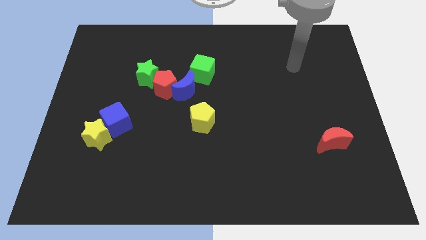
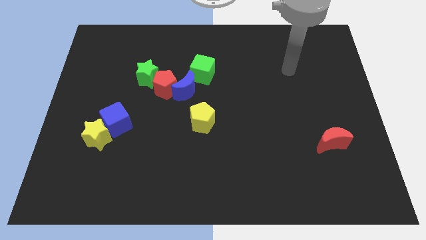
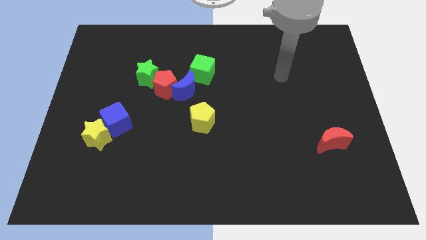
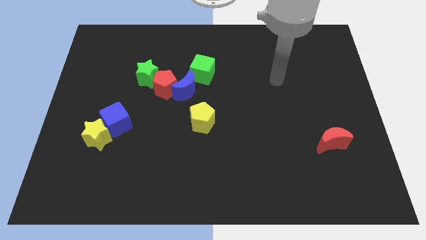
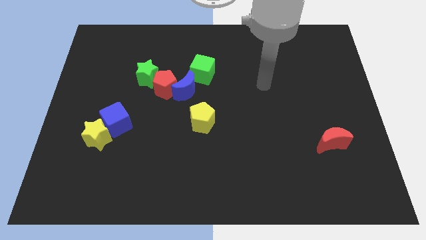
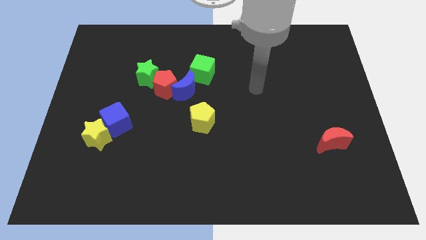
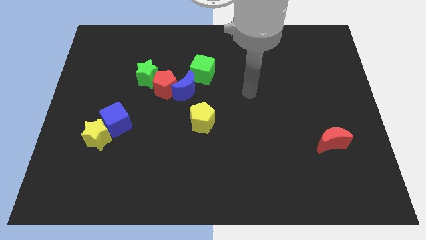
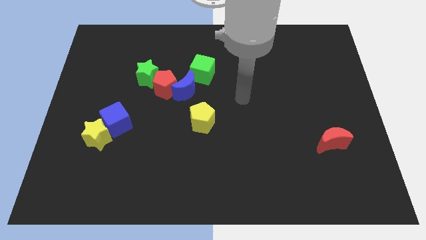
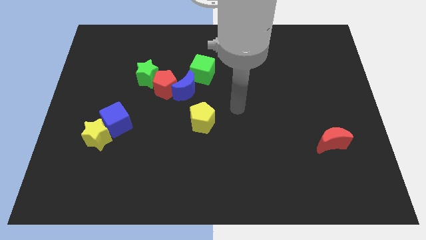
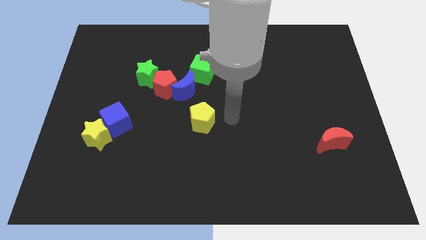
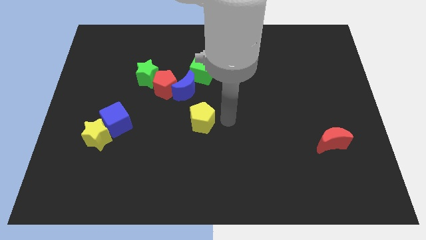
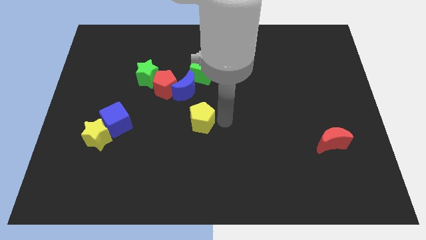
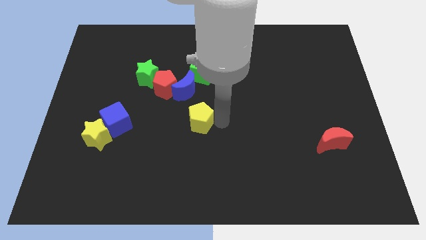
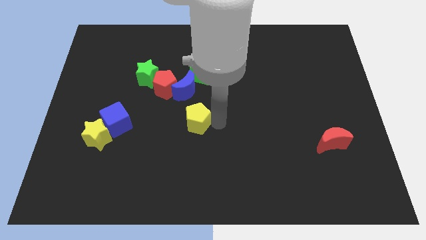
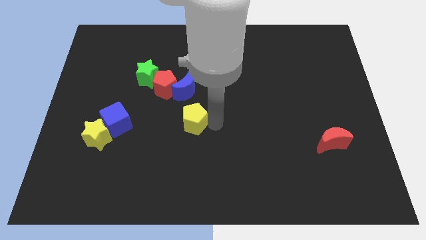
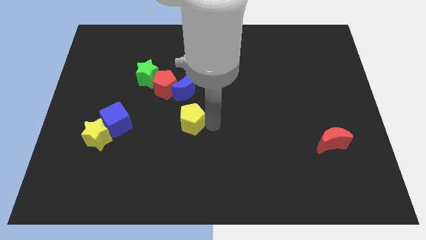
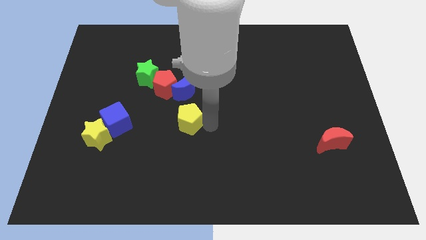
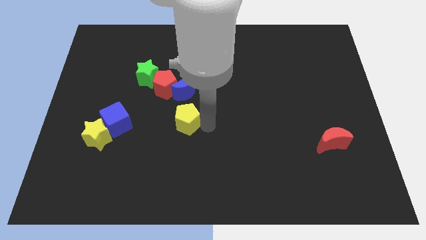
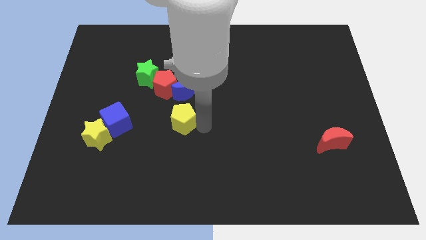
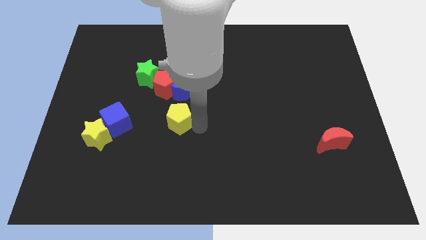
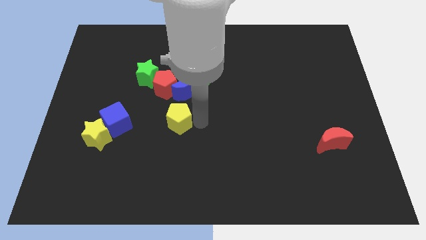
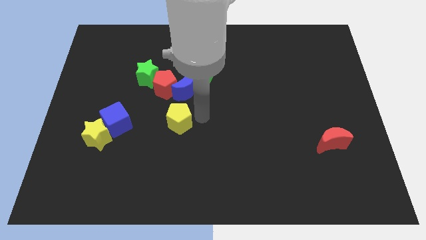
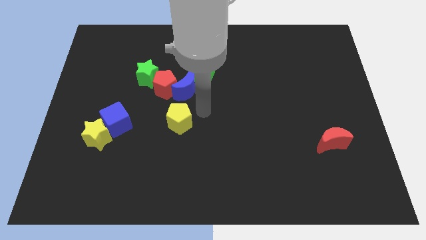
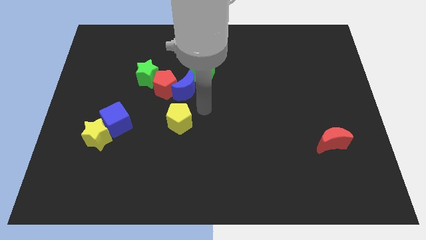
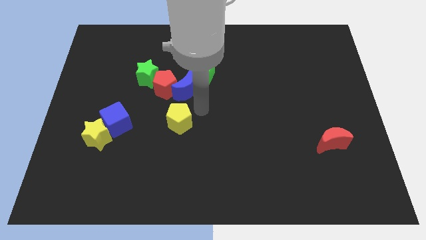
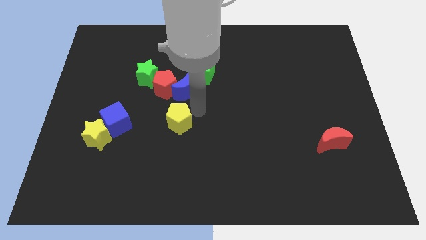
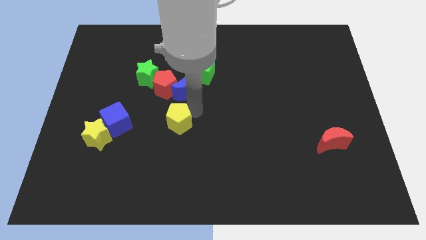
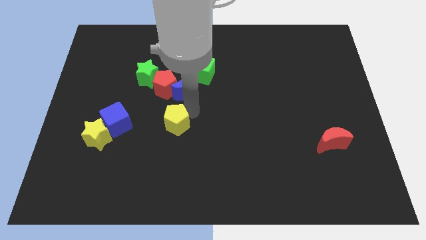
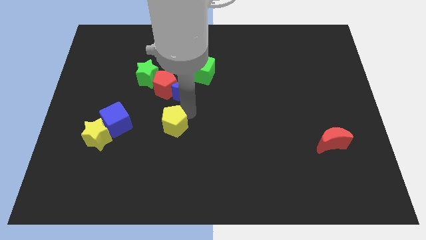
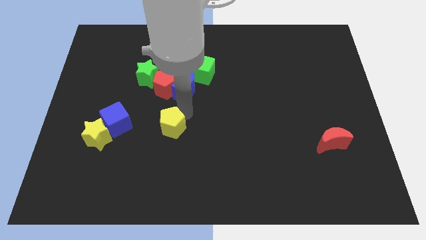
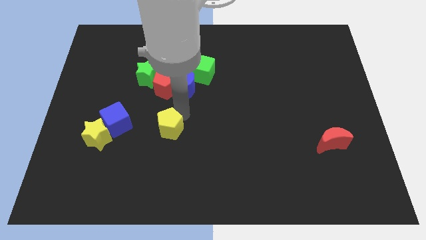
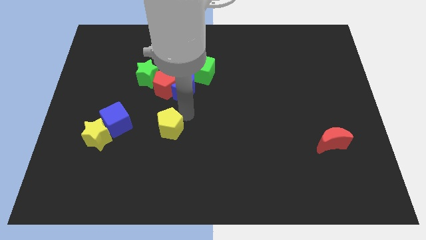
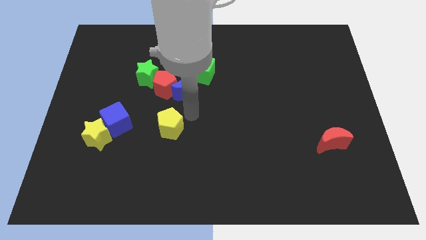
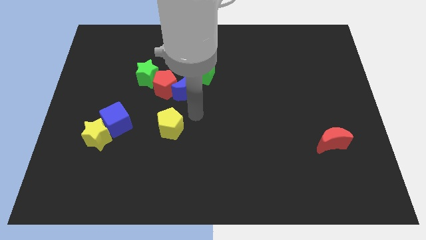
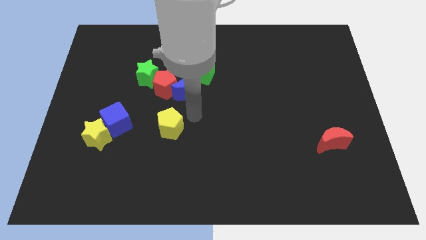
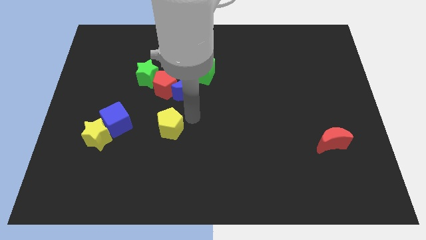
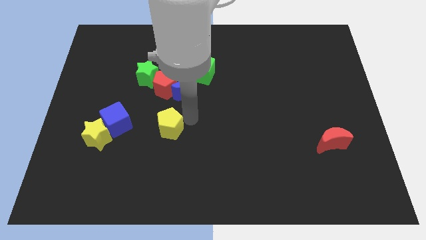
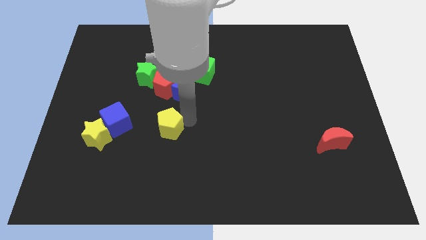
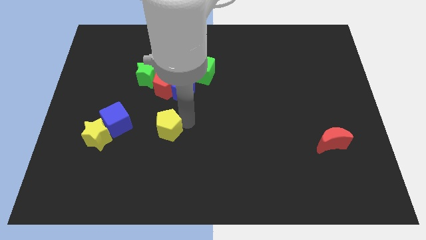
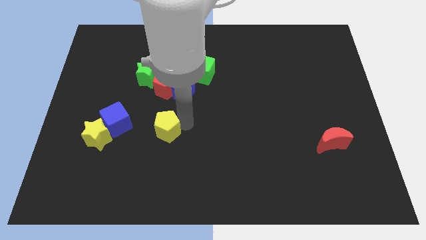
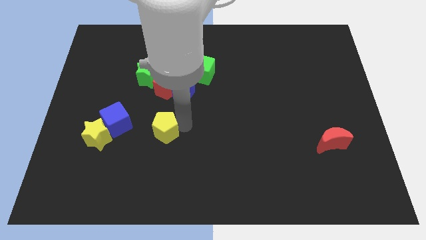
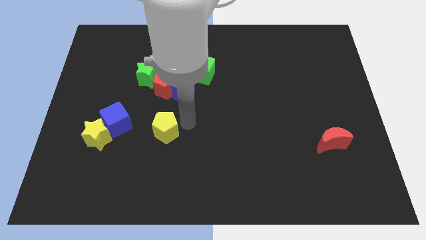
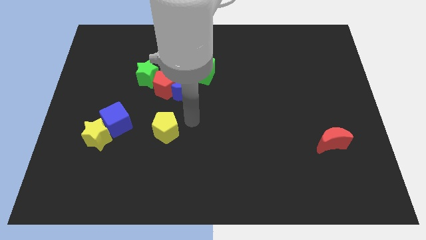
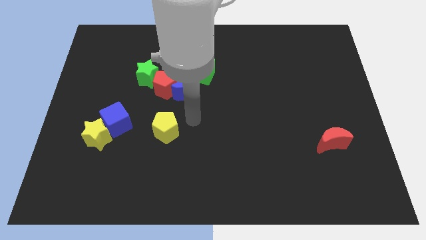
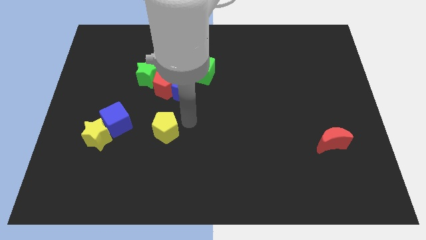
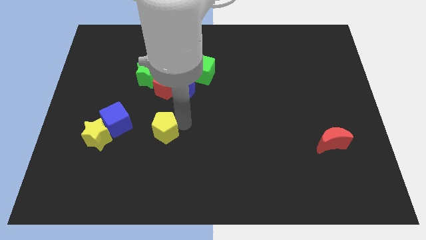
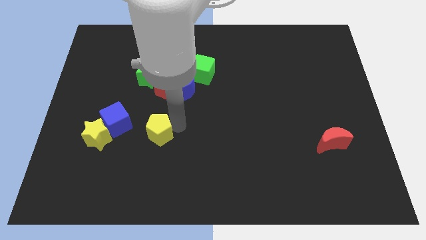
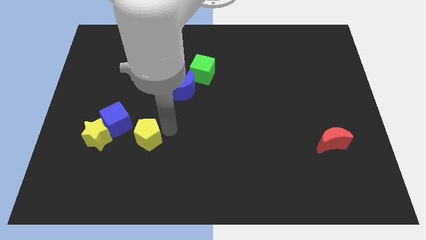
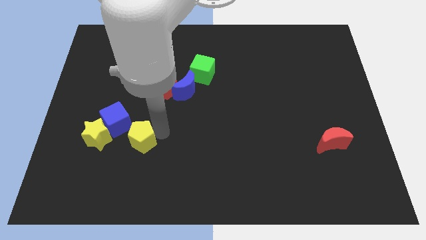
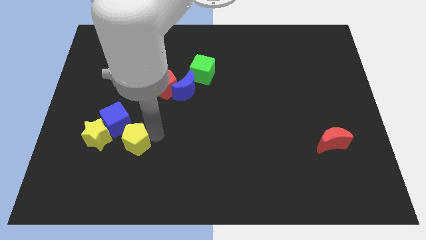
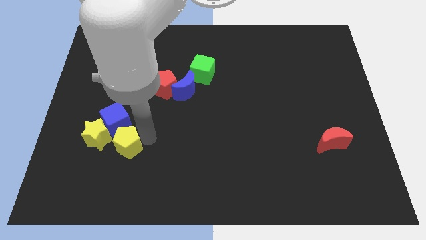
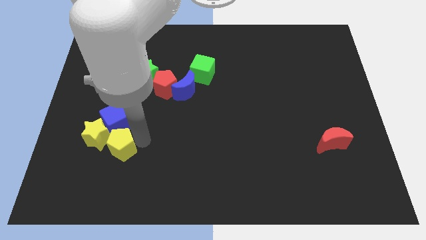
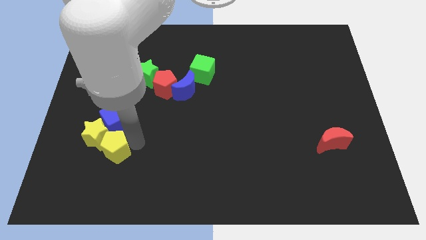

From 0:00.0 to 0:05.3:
move the yellow pentagon close to the yellow star

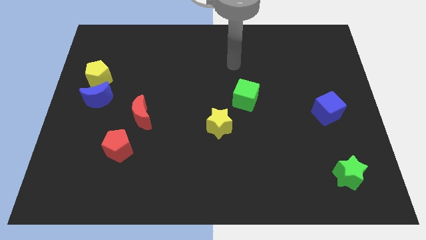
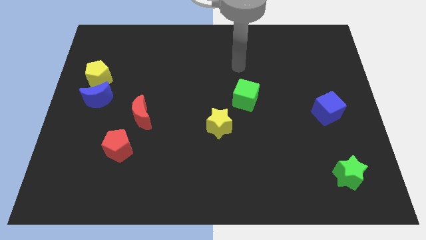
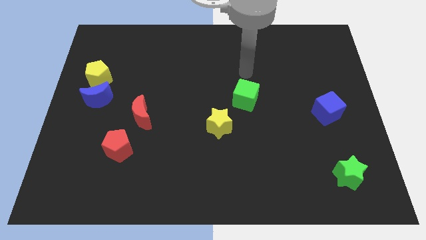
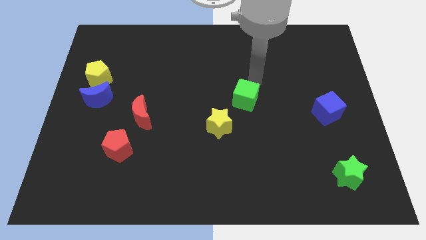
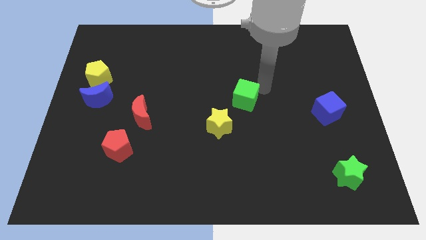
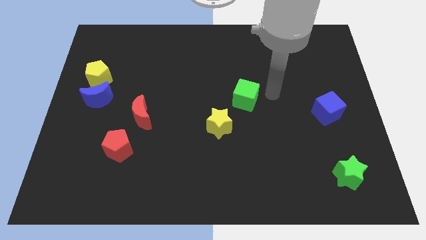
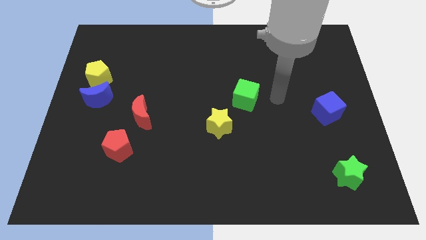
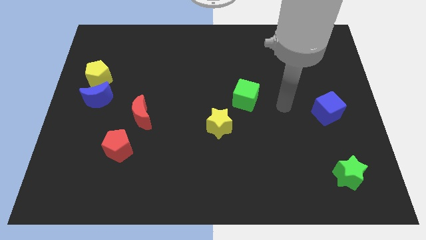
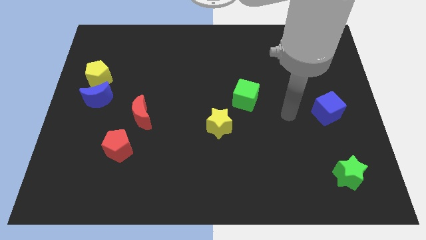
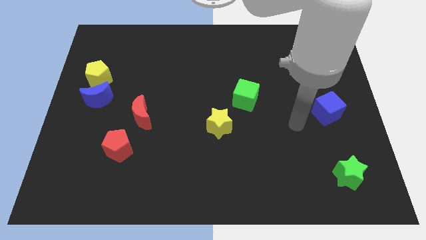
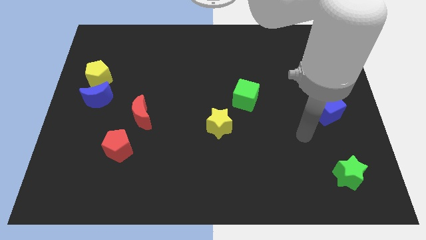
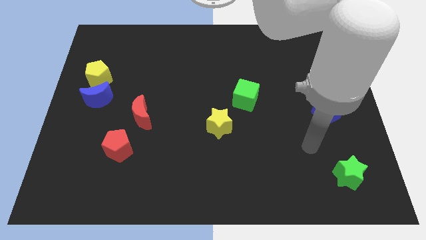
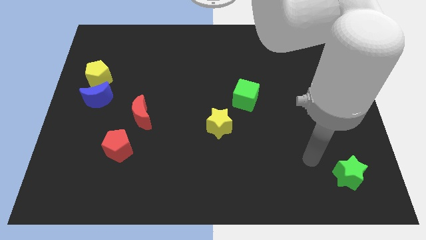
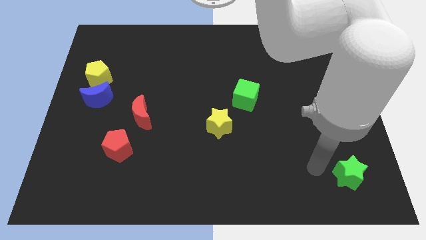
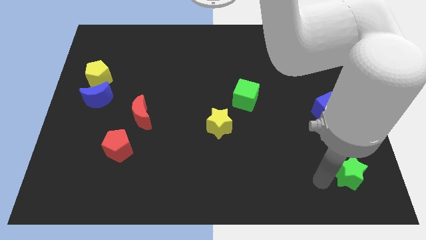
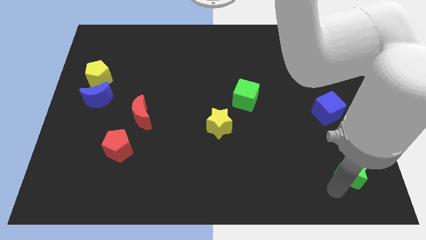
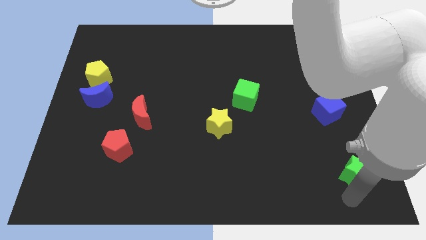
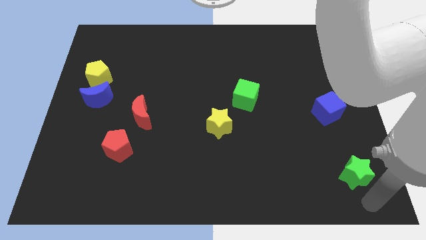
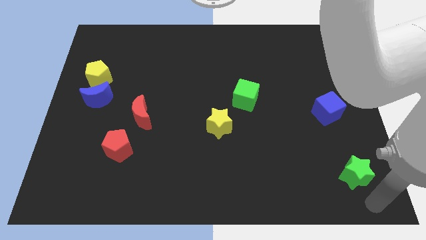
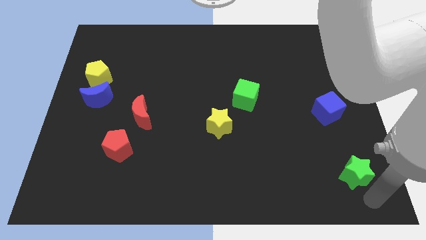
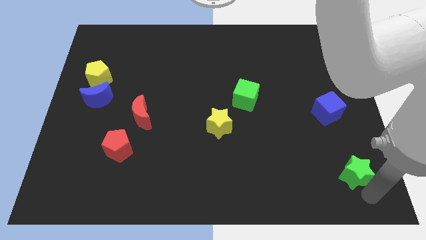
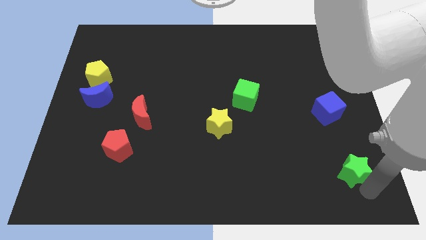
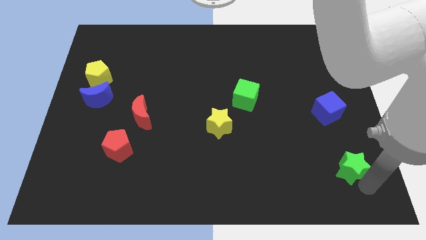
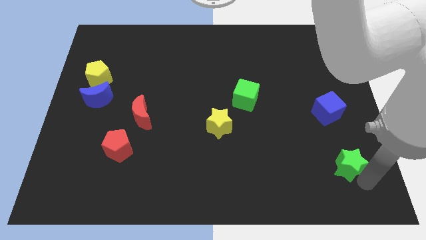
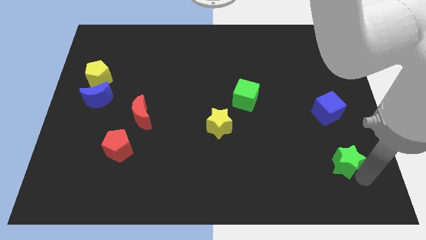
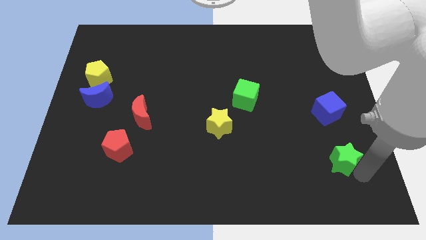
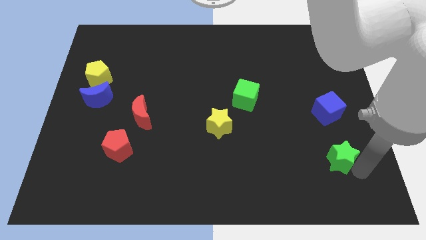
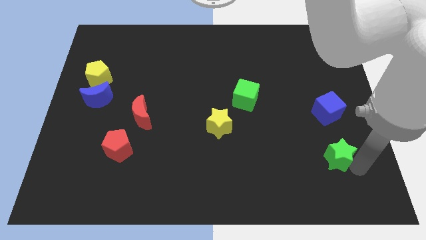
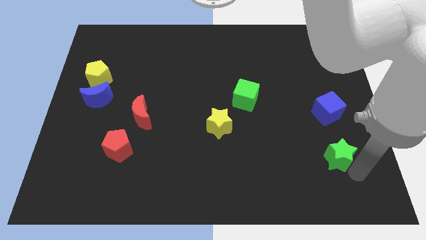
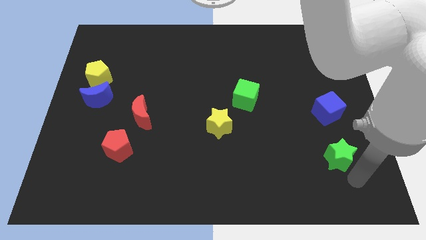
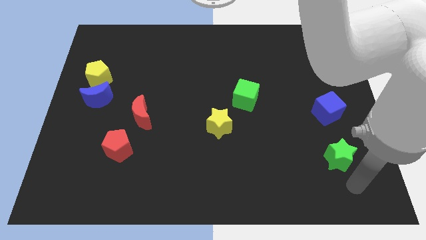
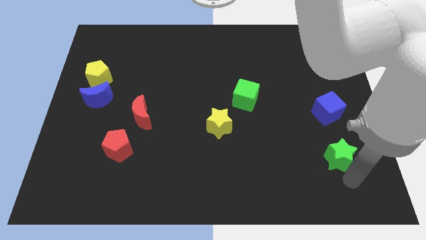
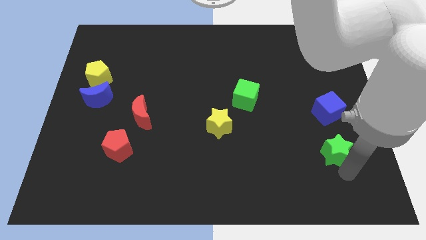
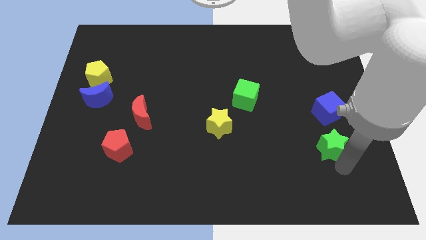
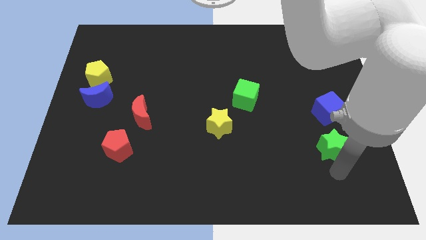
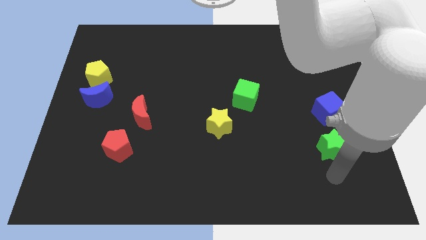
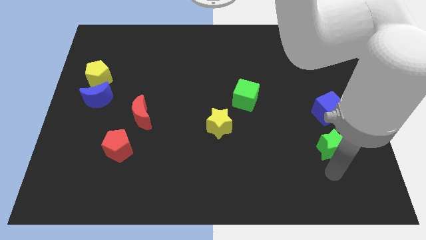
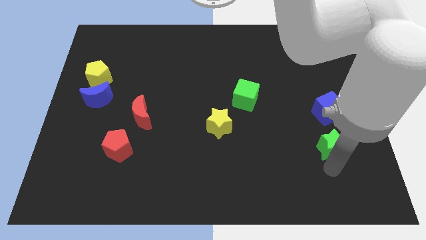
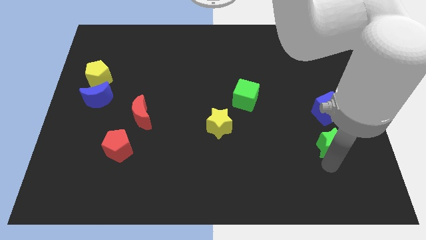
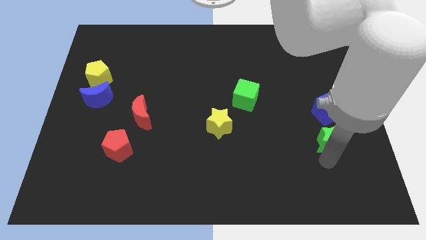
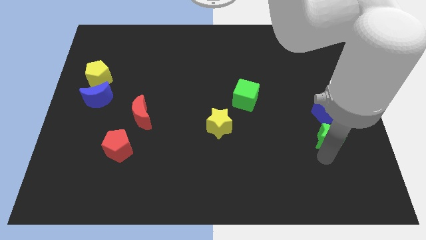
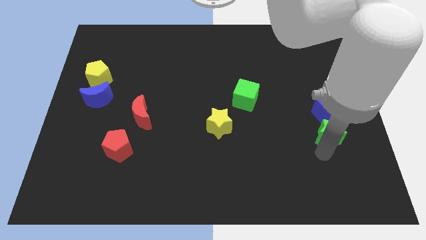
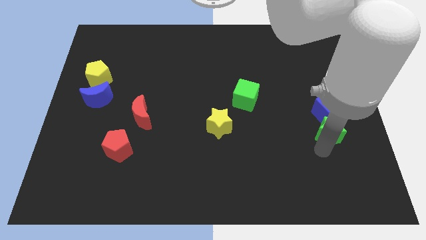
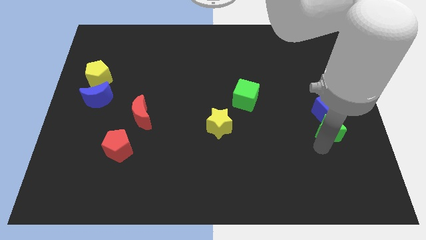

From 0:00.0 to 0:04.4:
slide the green star towards the blue cube
